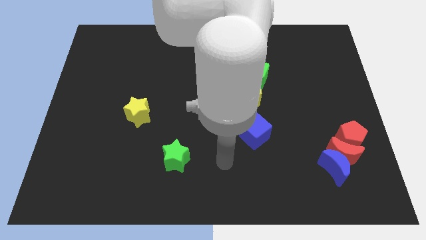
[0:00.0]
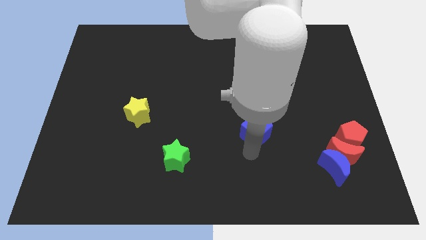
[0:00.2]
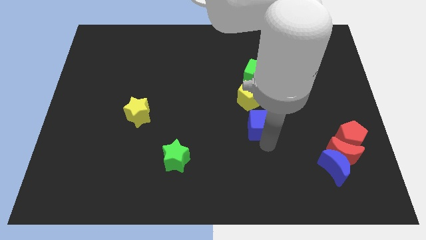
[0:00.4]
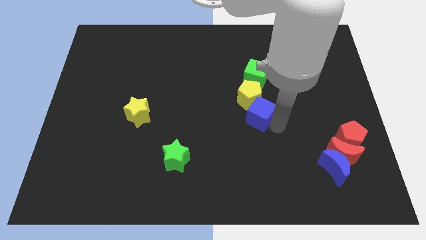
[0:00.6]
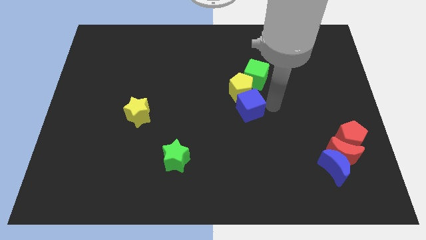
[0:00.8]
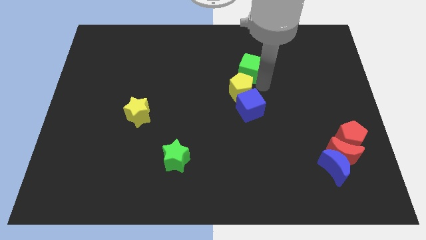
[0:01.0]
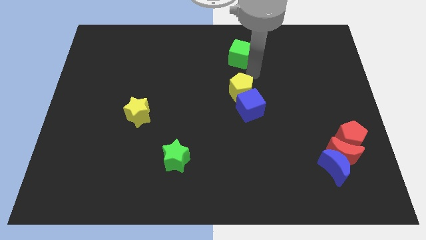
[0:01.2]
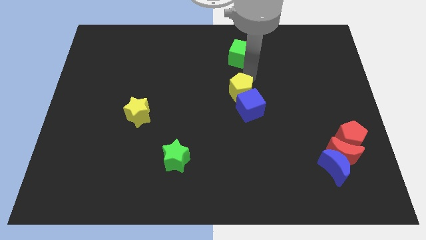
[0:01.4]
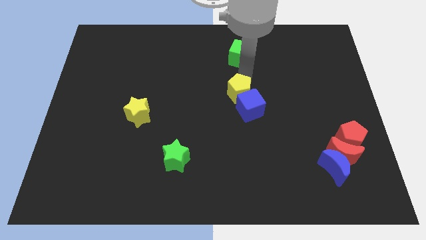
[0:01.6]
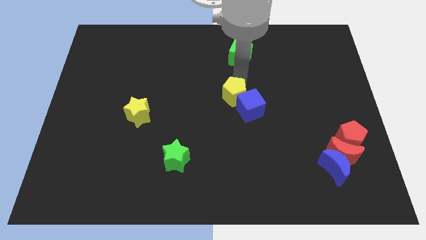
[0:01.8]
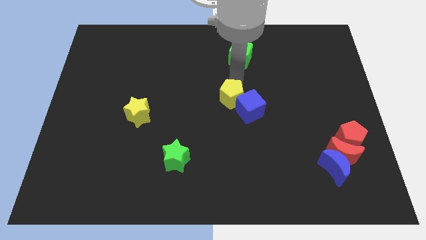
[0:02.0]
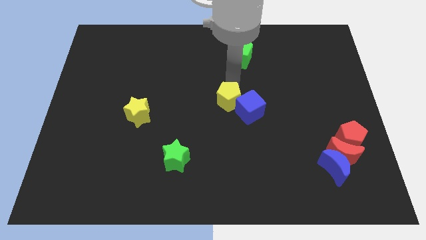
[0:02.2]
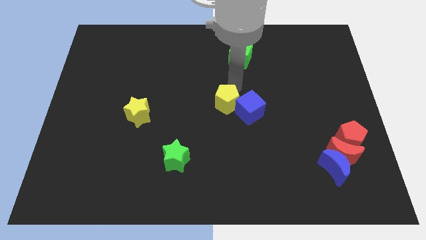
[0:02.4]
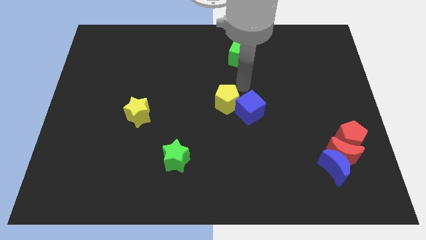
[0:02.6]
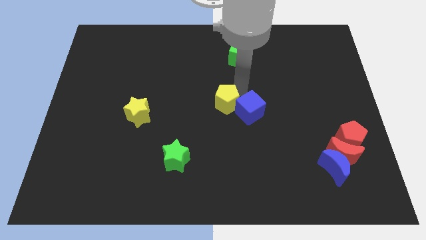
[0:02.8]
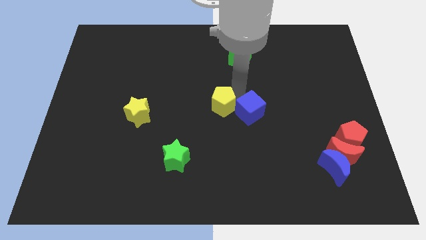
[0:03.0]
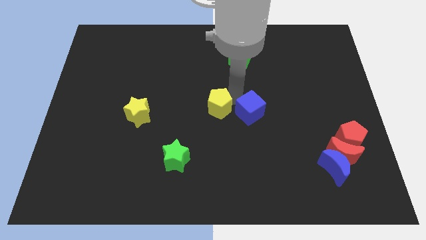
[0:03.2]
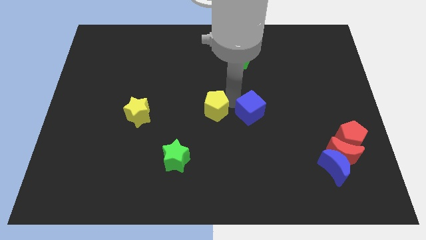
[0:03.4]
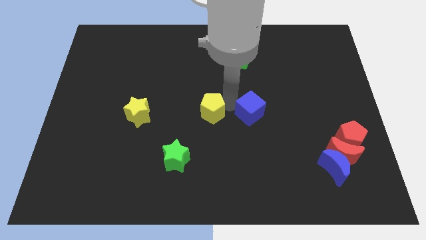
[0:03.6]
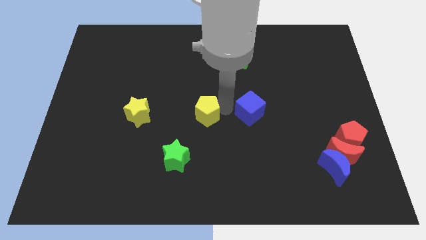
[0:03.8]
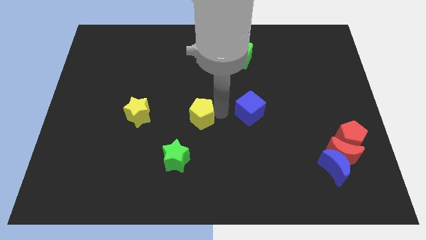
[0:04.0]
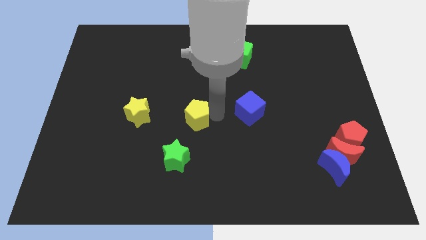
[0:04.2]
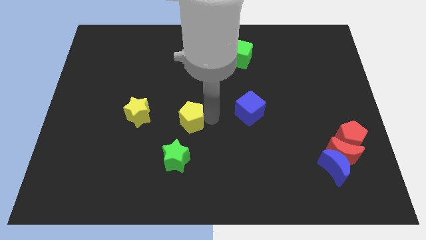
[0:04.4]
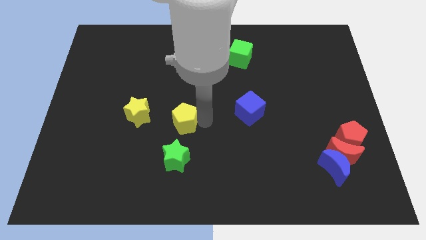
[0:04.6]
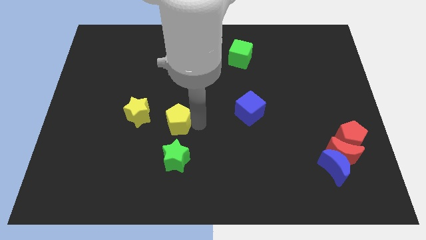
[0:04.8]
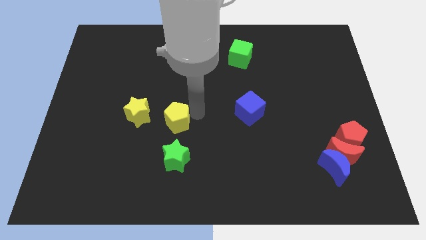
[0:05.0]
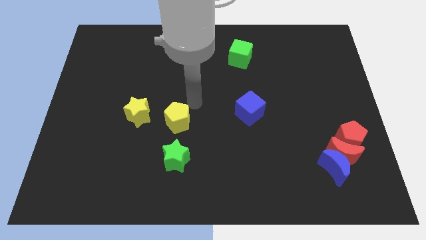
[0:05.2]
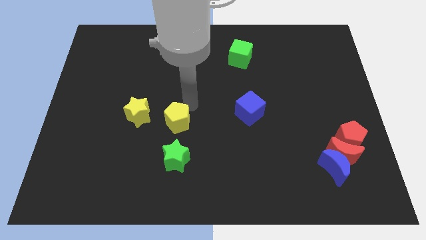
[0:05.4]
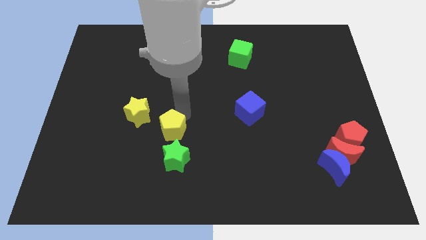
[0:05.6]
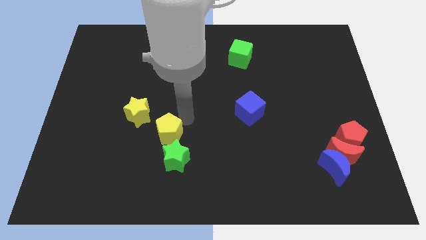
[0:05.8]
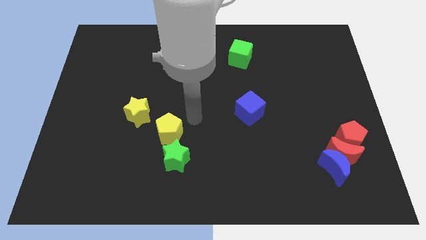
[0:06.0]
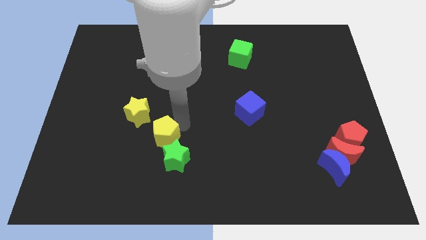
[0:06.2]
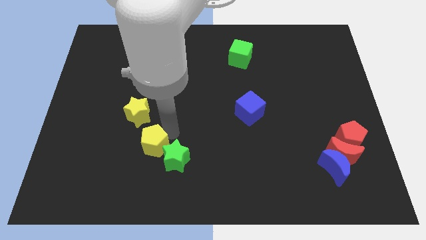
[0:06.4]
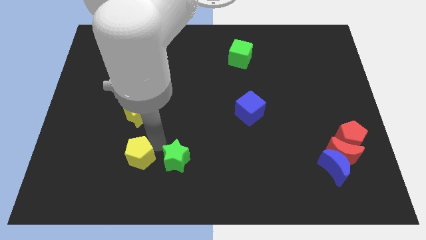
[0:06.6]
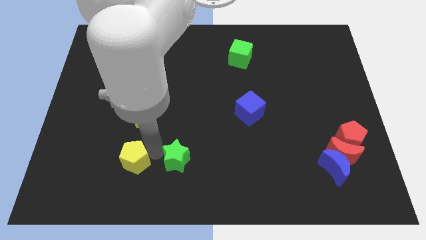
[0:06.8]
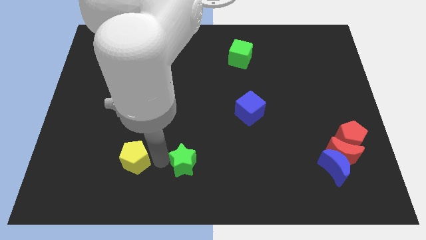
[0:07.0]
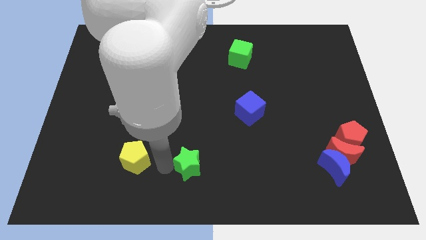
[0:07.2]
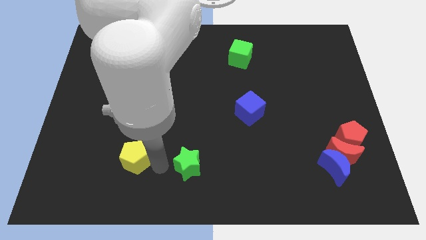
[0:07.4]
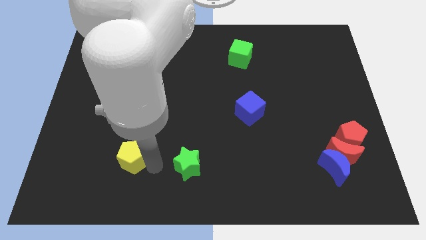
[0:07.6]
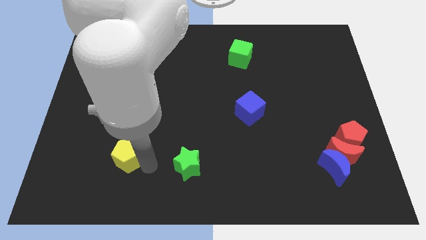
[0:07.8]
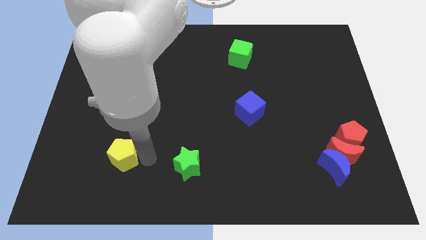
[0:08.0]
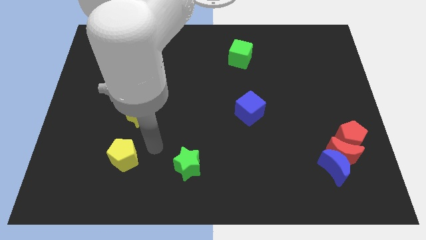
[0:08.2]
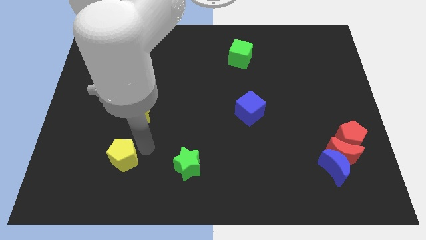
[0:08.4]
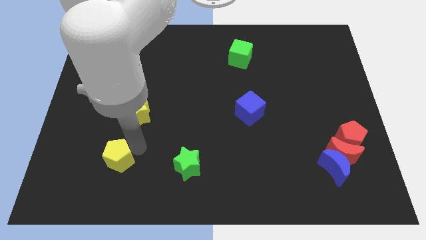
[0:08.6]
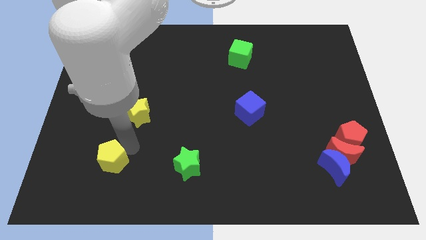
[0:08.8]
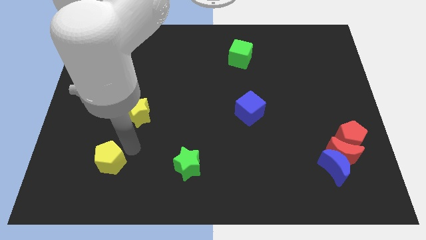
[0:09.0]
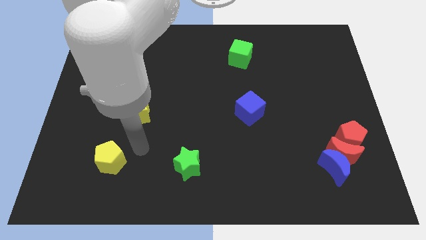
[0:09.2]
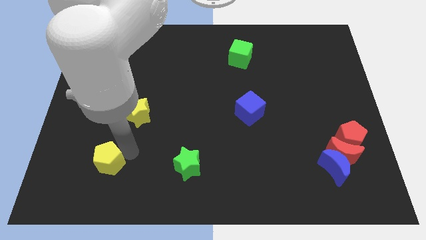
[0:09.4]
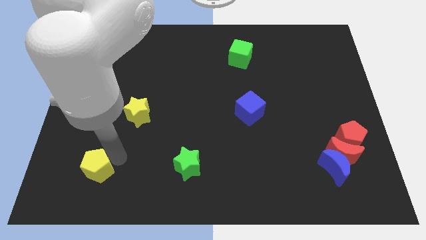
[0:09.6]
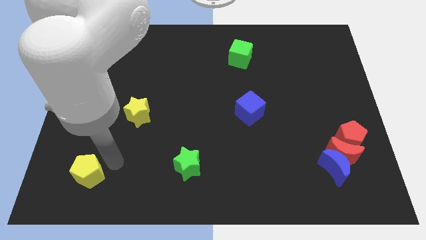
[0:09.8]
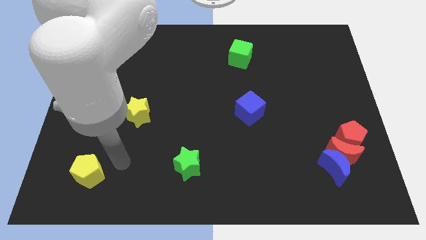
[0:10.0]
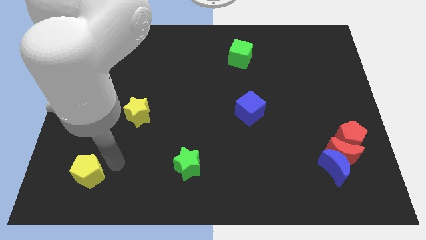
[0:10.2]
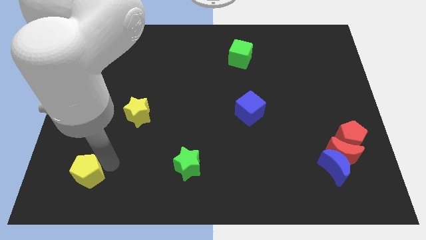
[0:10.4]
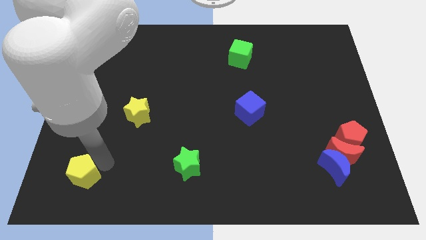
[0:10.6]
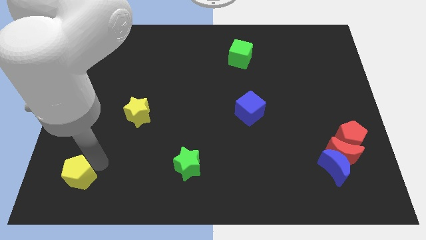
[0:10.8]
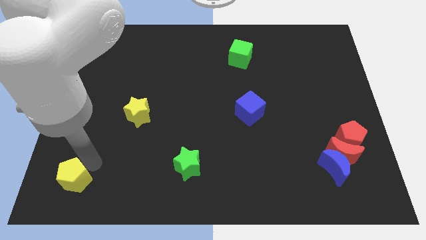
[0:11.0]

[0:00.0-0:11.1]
move the yellow pentagon to the lower left corner
